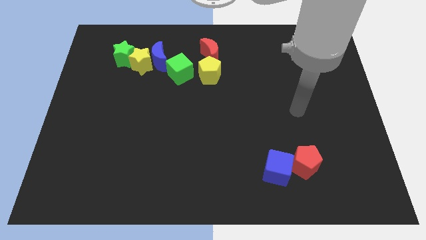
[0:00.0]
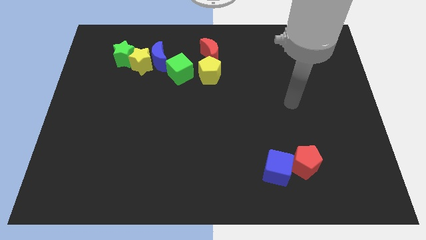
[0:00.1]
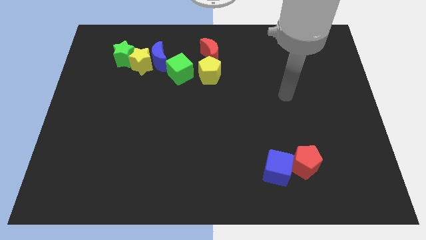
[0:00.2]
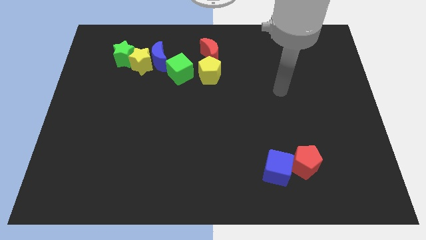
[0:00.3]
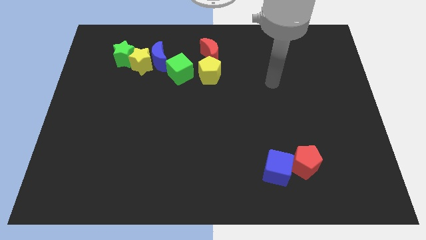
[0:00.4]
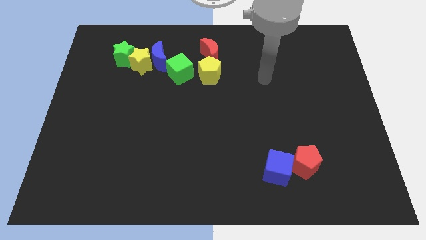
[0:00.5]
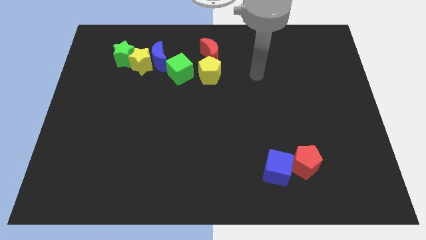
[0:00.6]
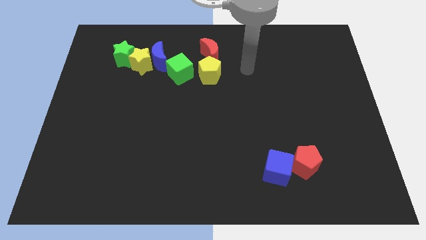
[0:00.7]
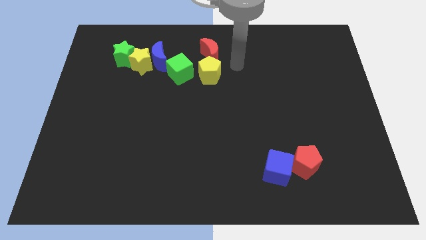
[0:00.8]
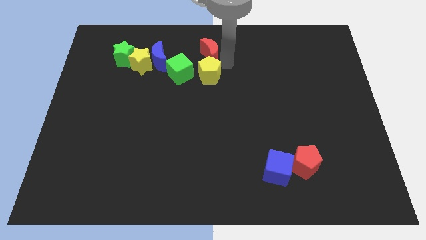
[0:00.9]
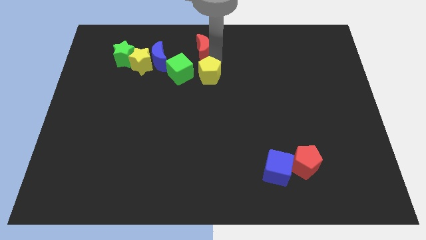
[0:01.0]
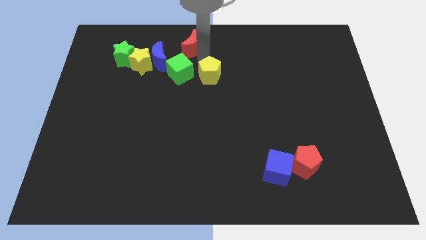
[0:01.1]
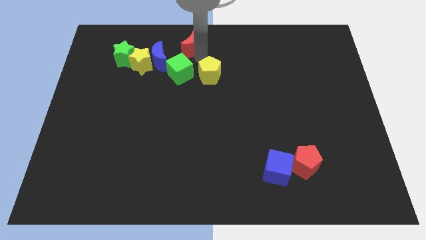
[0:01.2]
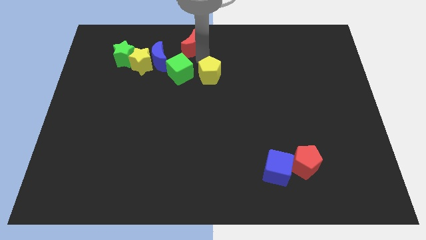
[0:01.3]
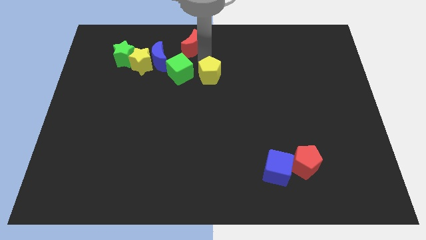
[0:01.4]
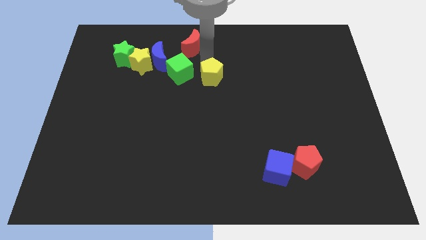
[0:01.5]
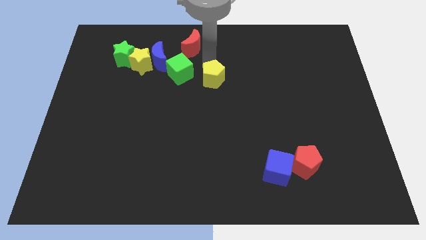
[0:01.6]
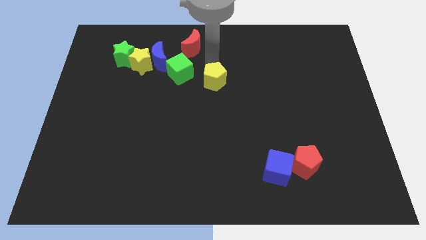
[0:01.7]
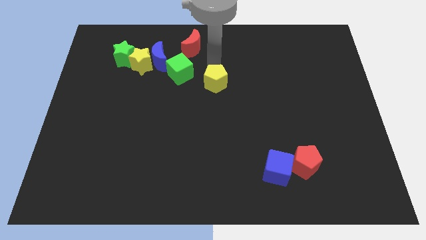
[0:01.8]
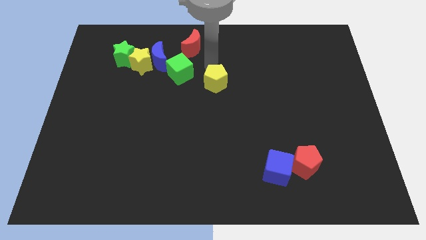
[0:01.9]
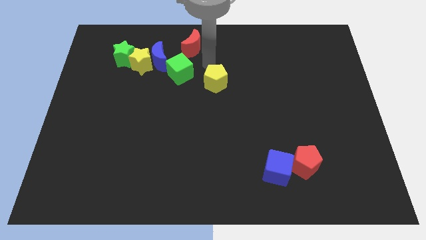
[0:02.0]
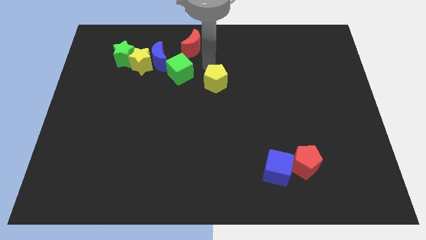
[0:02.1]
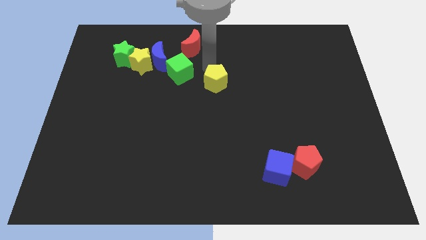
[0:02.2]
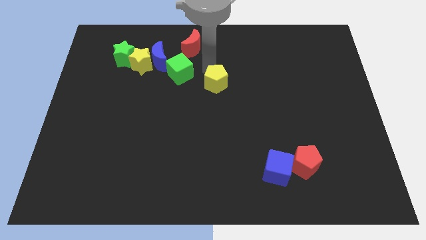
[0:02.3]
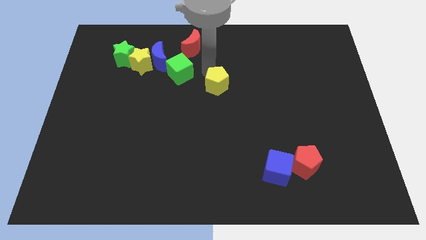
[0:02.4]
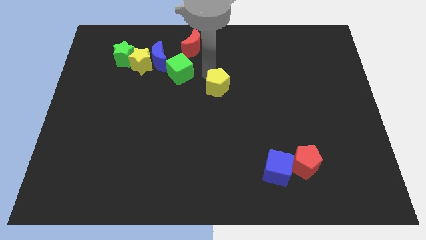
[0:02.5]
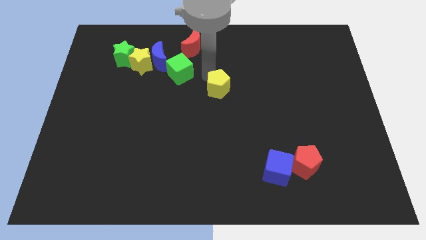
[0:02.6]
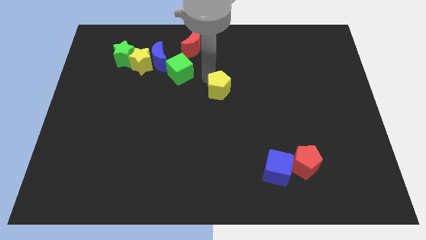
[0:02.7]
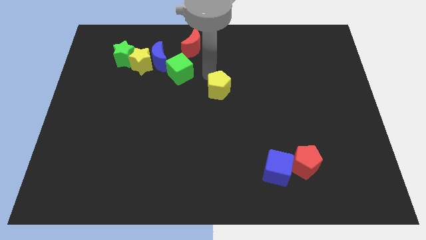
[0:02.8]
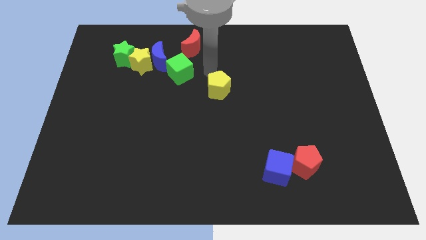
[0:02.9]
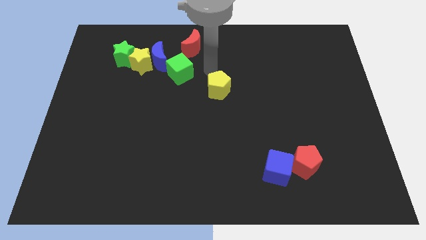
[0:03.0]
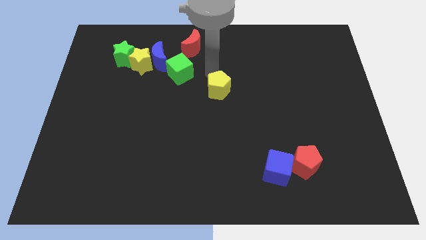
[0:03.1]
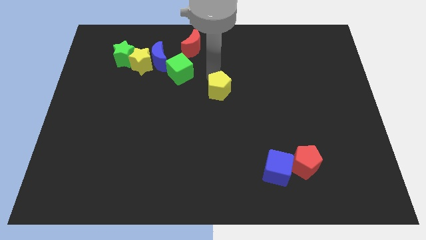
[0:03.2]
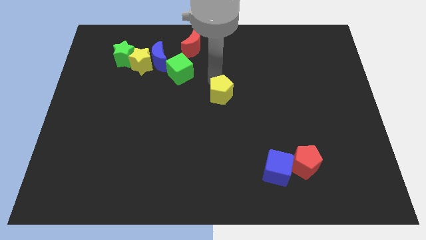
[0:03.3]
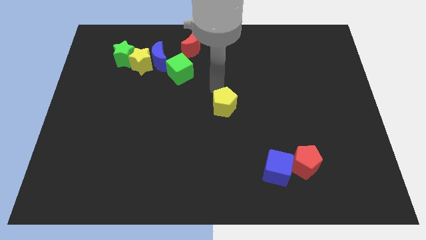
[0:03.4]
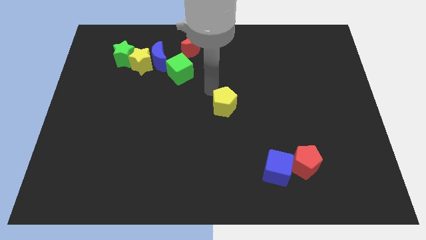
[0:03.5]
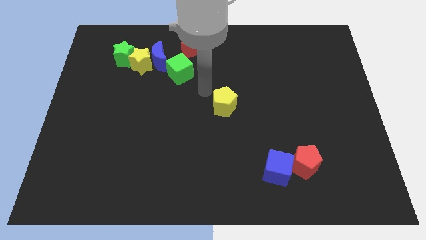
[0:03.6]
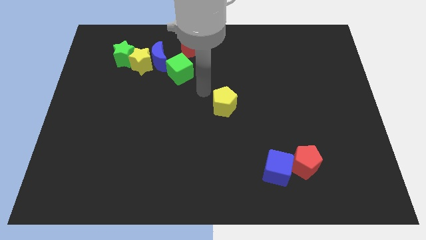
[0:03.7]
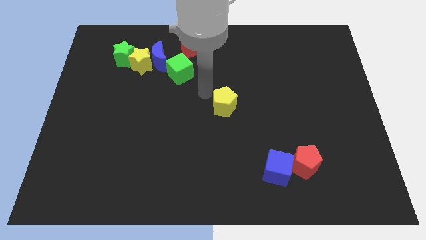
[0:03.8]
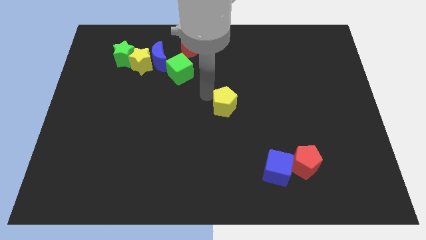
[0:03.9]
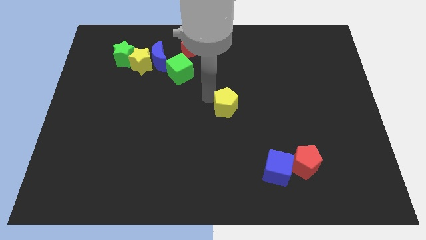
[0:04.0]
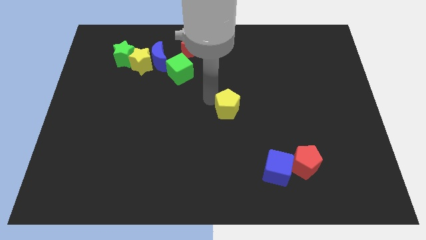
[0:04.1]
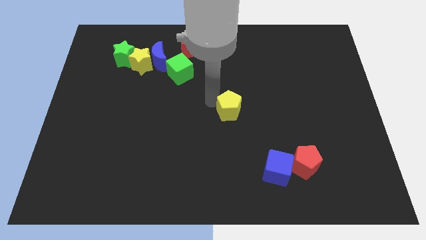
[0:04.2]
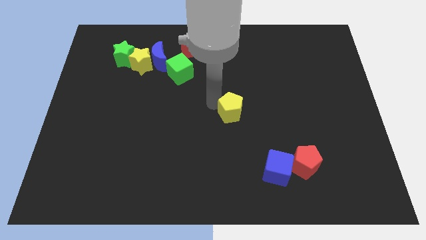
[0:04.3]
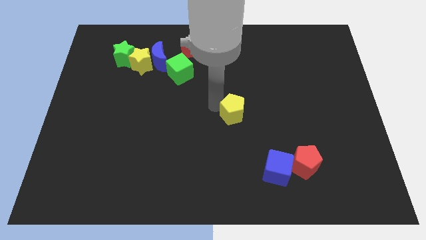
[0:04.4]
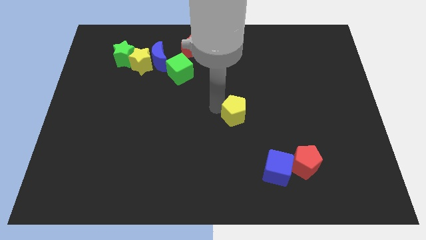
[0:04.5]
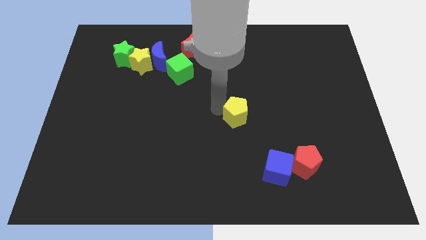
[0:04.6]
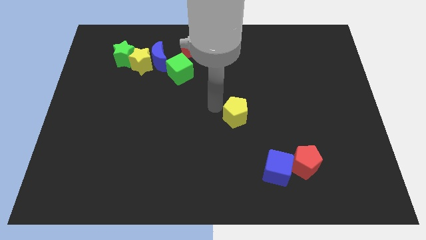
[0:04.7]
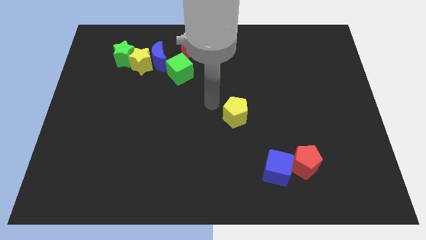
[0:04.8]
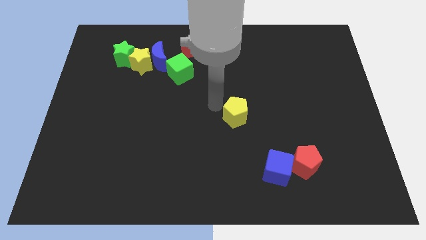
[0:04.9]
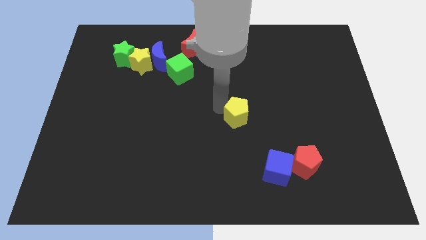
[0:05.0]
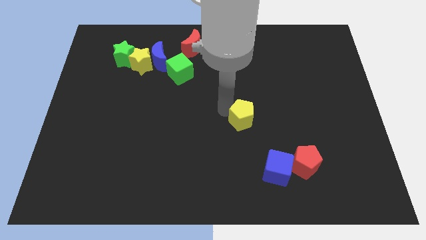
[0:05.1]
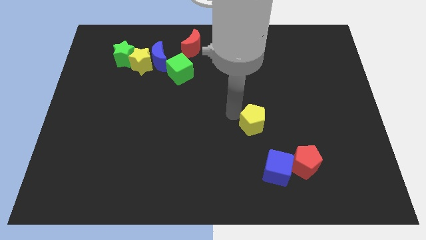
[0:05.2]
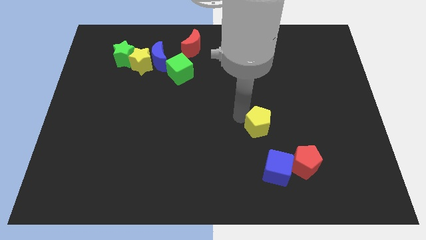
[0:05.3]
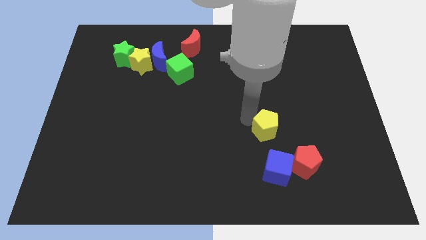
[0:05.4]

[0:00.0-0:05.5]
put the yellow pentagon to the top left of the red pentagon

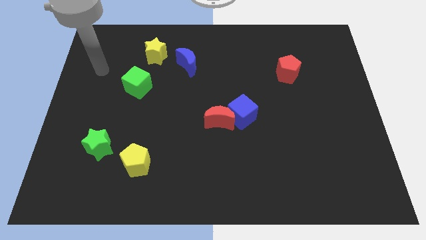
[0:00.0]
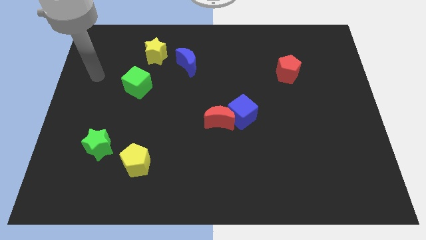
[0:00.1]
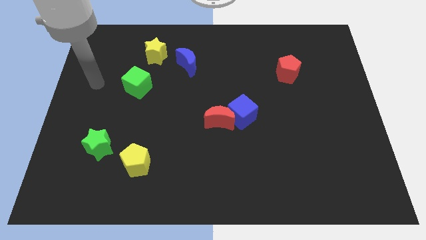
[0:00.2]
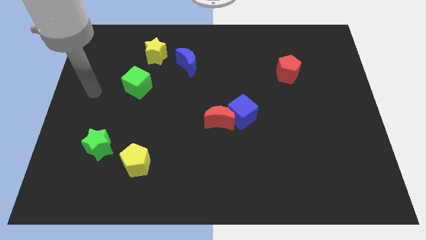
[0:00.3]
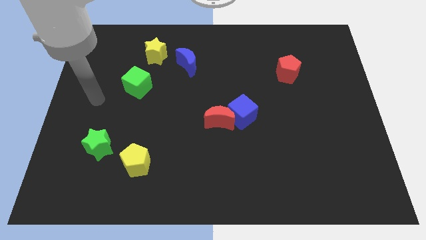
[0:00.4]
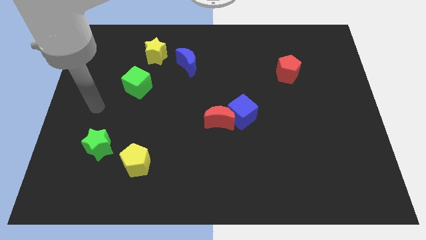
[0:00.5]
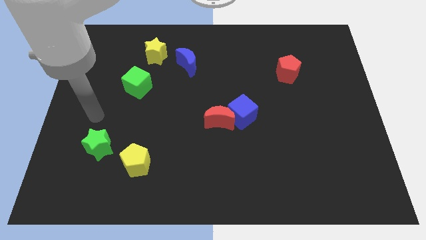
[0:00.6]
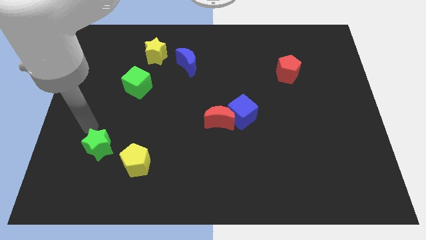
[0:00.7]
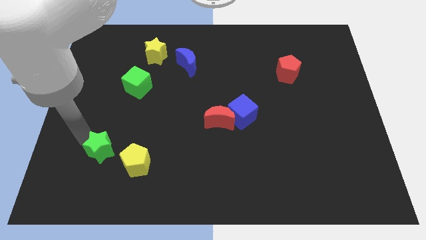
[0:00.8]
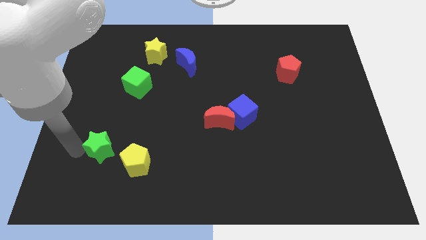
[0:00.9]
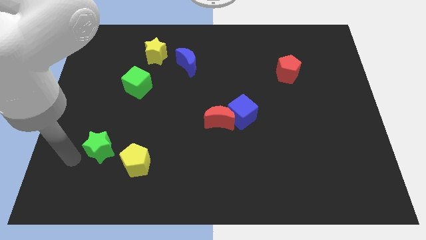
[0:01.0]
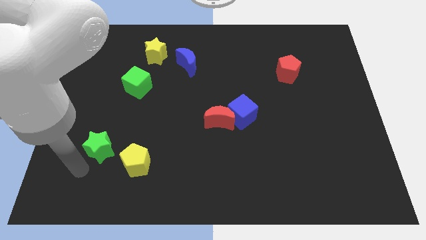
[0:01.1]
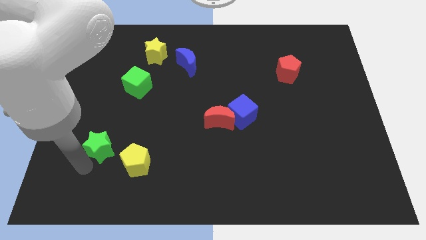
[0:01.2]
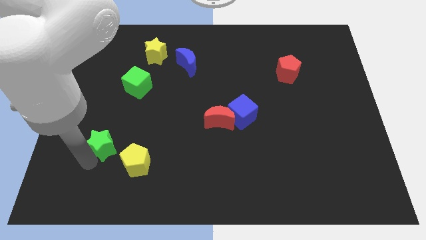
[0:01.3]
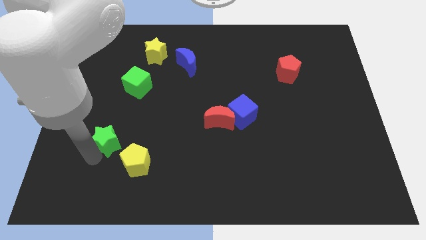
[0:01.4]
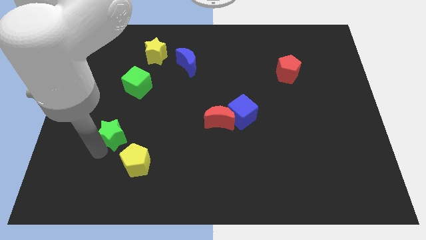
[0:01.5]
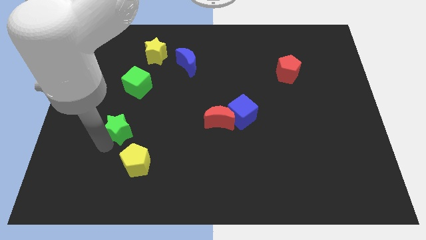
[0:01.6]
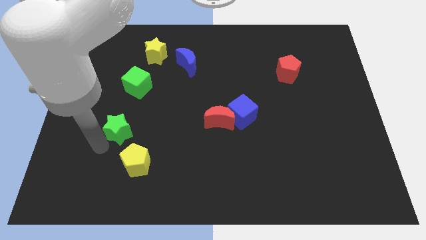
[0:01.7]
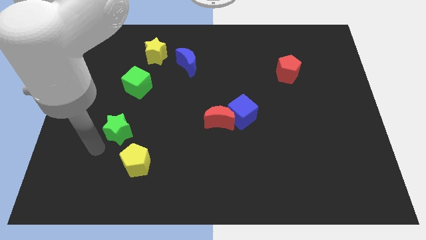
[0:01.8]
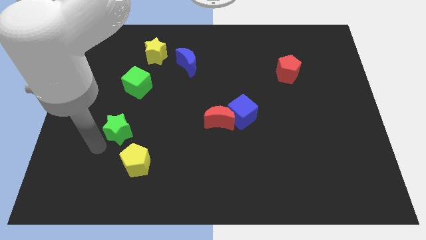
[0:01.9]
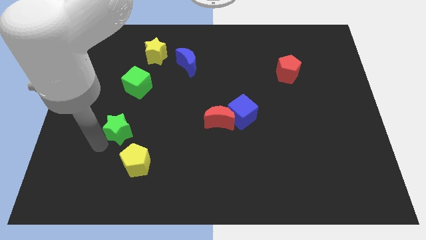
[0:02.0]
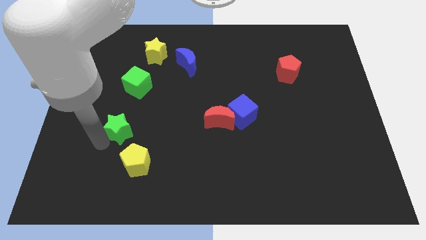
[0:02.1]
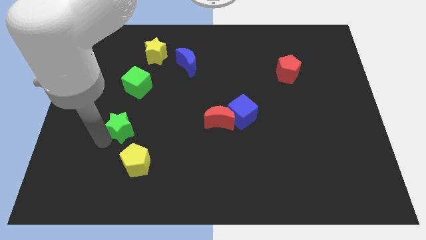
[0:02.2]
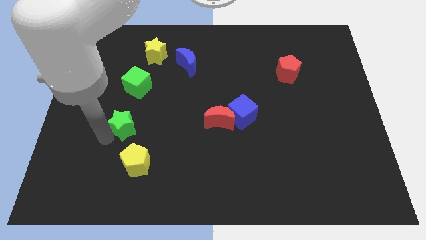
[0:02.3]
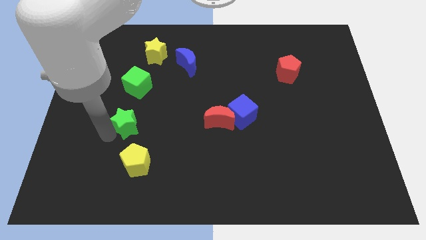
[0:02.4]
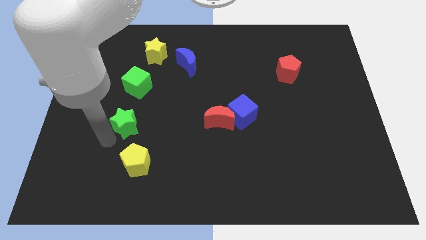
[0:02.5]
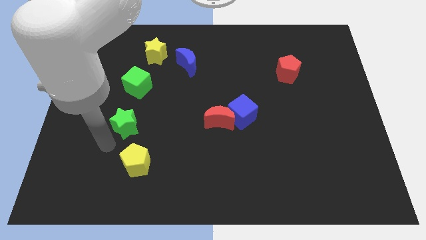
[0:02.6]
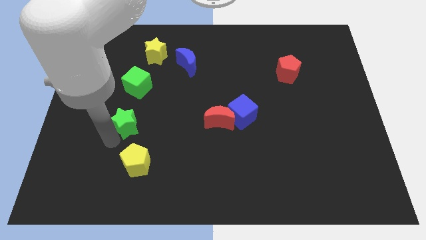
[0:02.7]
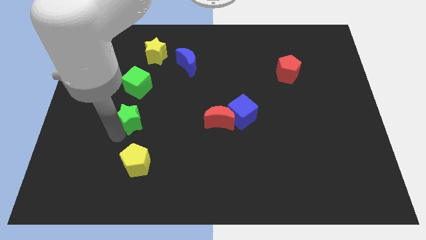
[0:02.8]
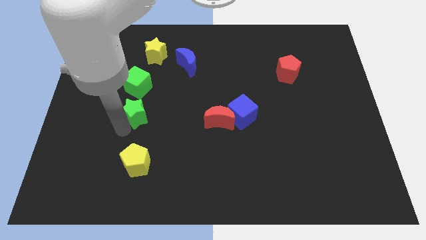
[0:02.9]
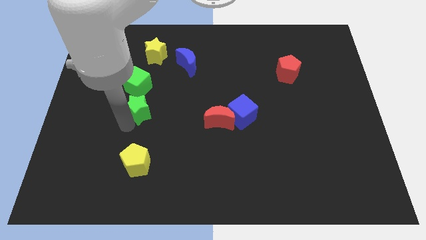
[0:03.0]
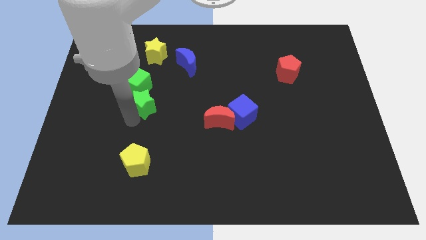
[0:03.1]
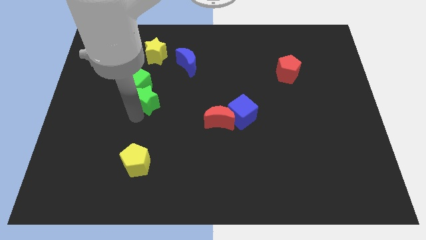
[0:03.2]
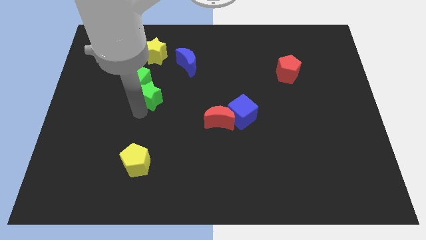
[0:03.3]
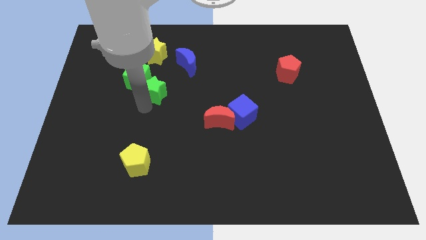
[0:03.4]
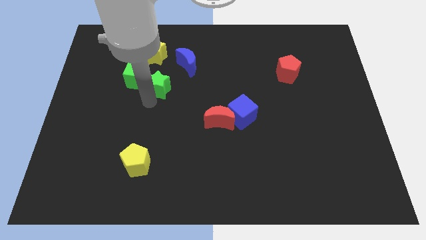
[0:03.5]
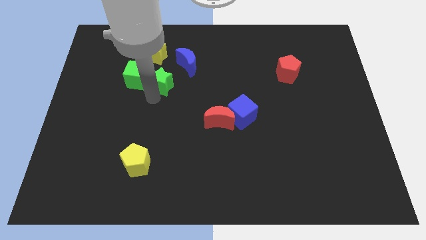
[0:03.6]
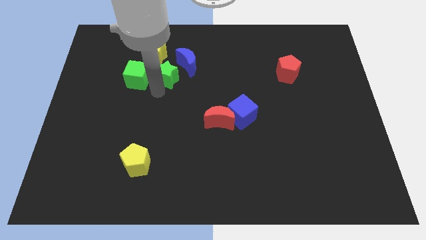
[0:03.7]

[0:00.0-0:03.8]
put the green star to the bottom right side of the yellow star
